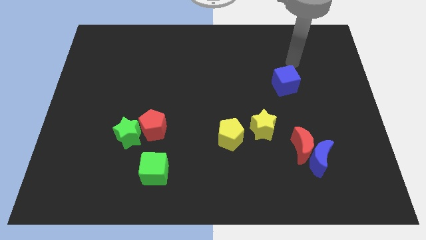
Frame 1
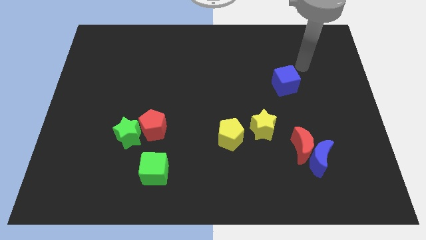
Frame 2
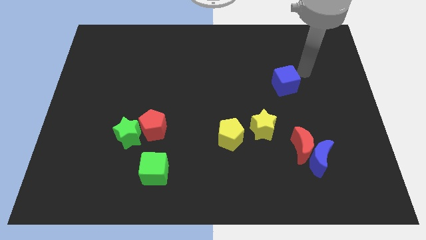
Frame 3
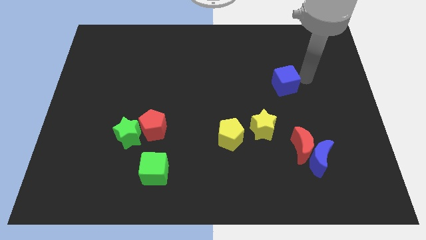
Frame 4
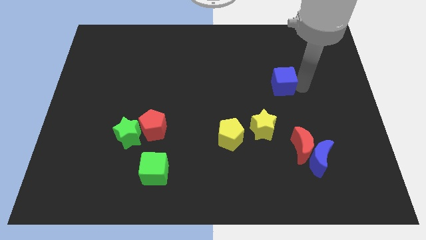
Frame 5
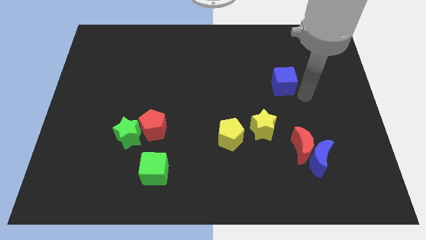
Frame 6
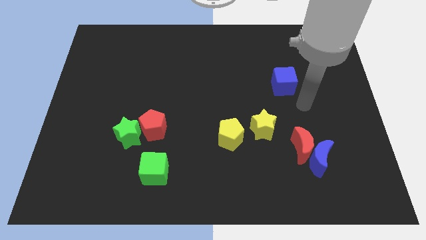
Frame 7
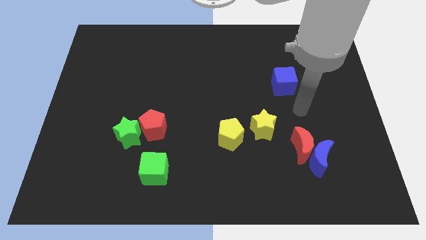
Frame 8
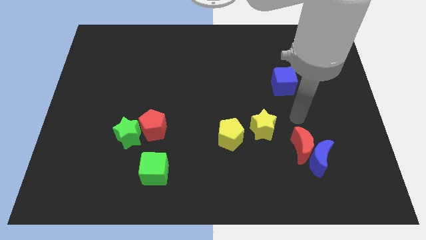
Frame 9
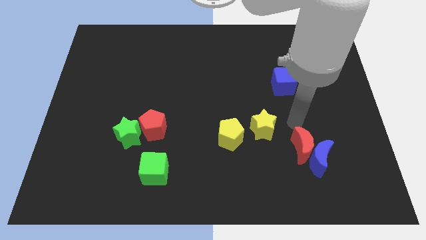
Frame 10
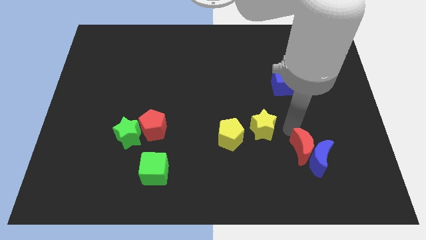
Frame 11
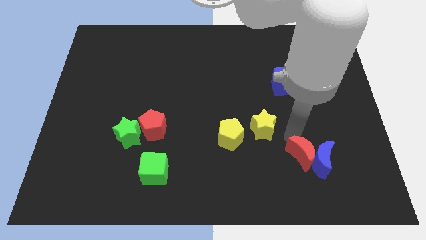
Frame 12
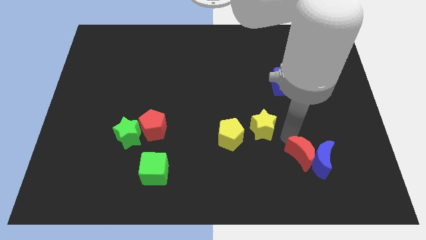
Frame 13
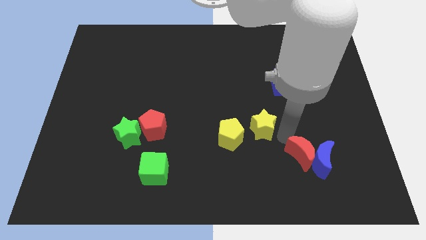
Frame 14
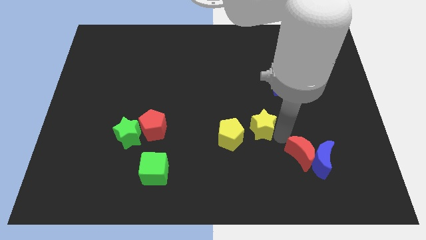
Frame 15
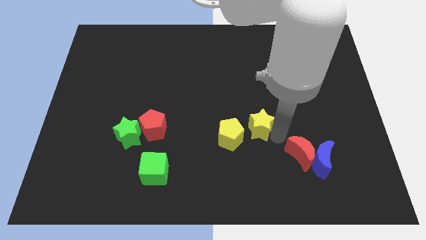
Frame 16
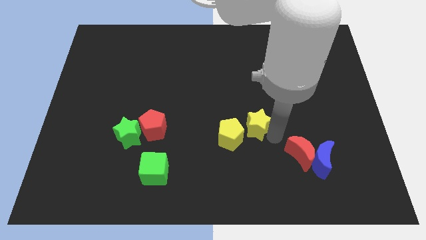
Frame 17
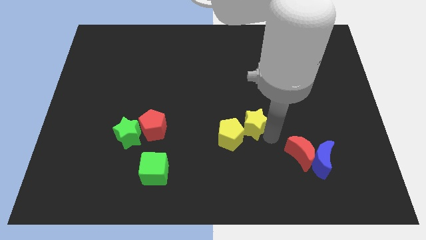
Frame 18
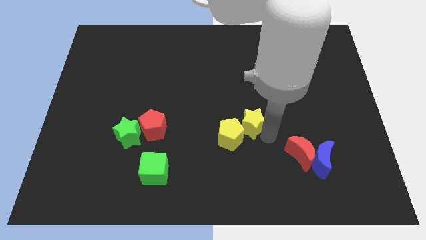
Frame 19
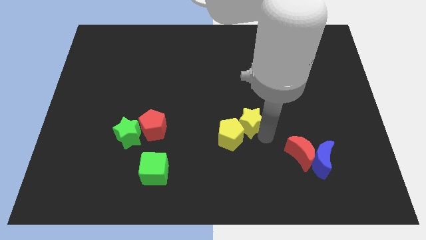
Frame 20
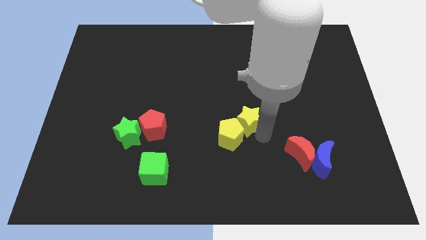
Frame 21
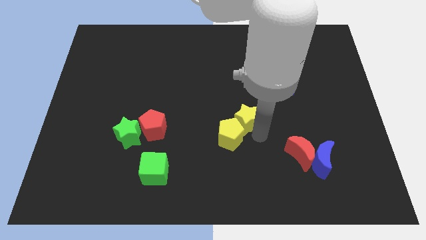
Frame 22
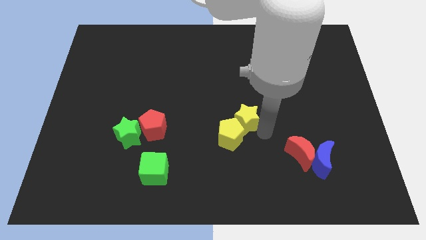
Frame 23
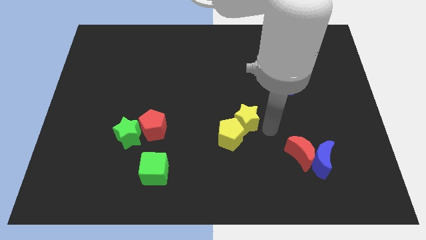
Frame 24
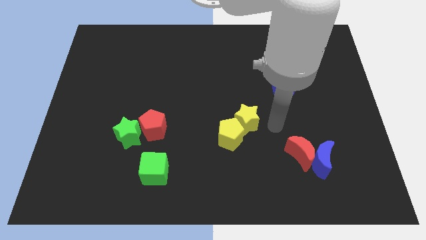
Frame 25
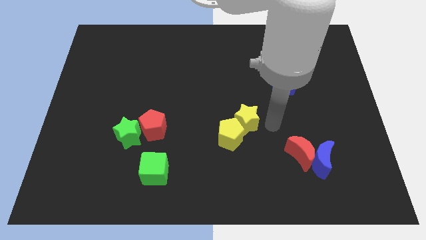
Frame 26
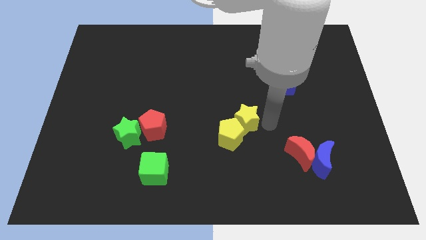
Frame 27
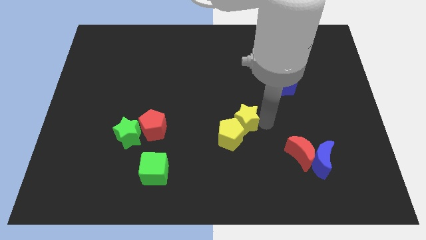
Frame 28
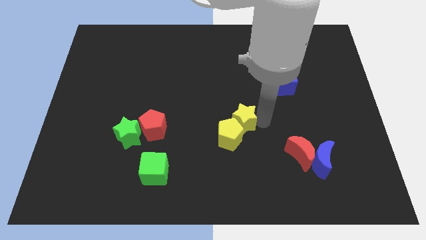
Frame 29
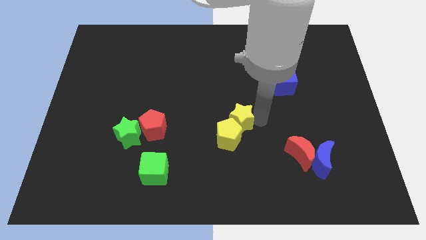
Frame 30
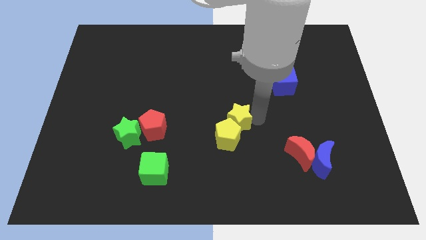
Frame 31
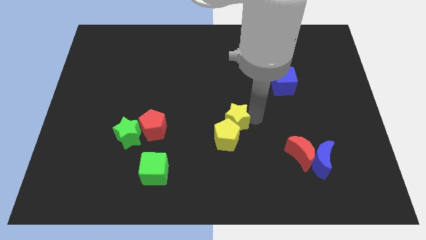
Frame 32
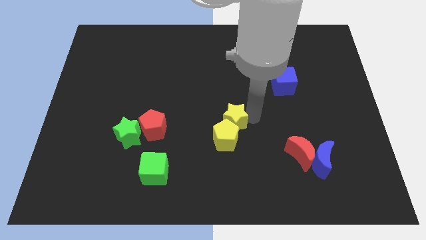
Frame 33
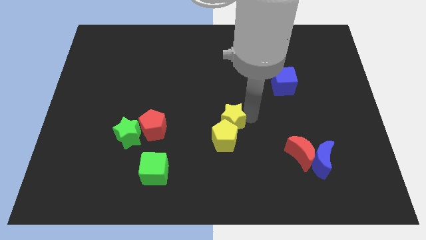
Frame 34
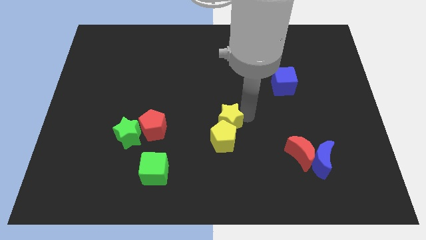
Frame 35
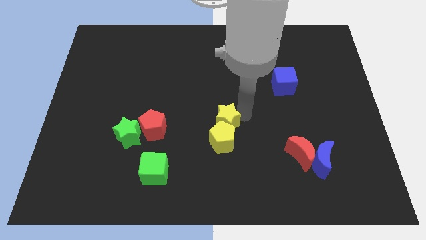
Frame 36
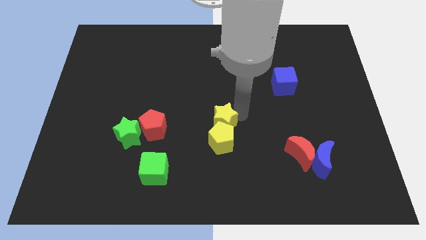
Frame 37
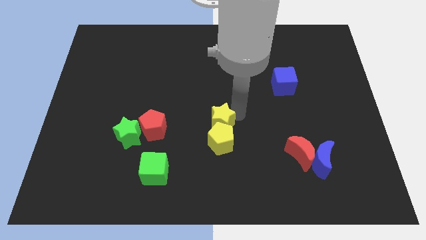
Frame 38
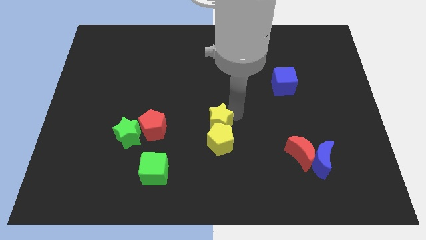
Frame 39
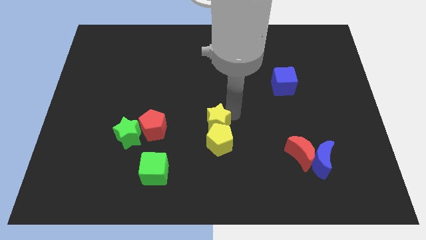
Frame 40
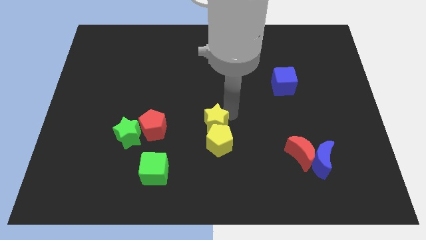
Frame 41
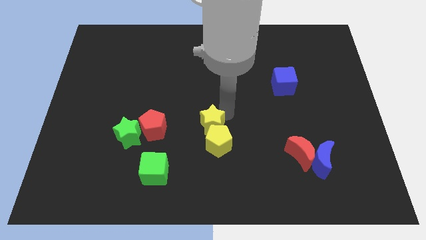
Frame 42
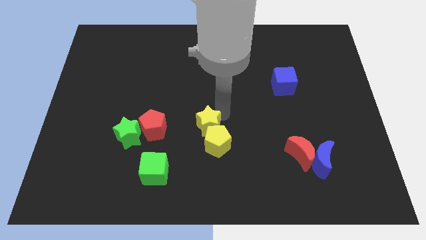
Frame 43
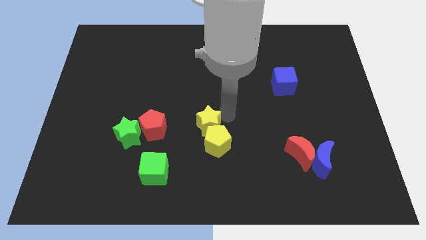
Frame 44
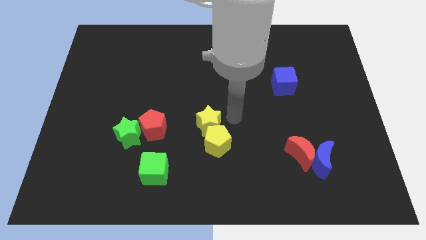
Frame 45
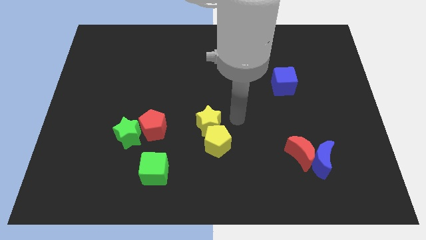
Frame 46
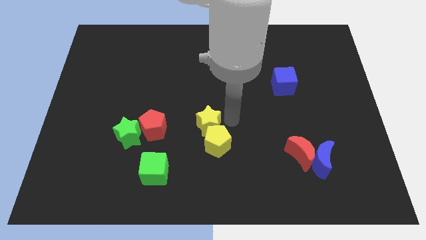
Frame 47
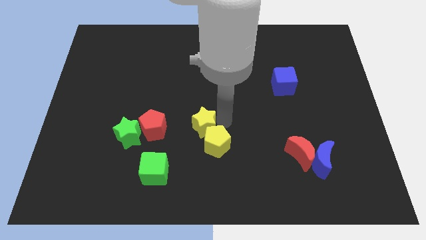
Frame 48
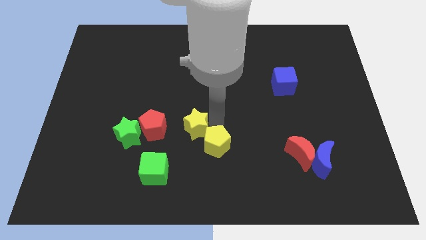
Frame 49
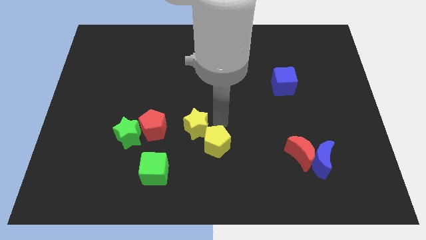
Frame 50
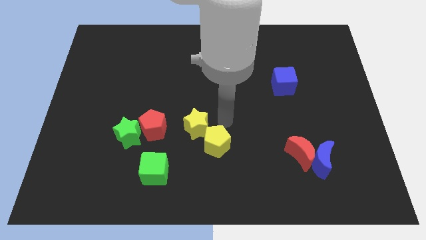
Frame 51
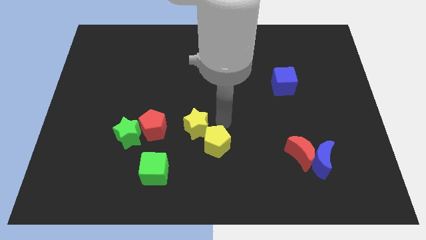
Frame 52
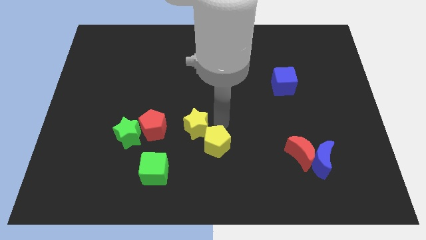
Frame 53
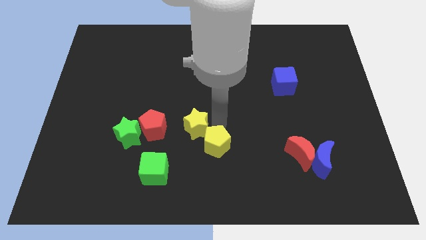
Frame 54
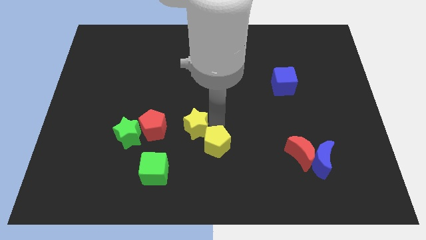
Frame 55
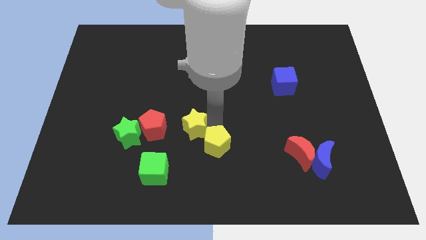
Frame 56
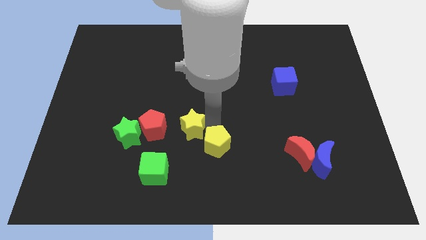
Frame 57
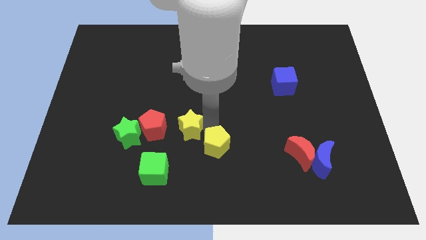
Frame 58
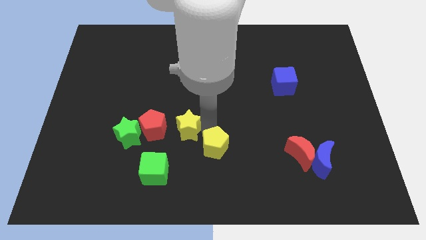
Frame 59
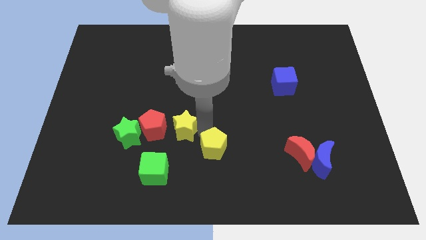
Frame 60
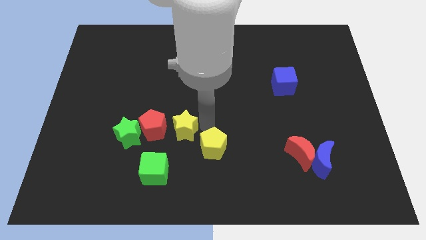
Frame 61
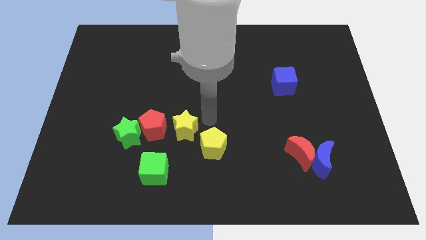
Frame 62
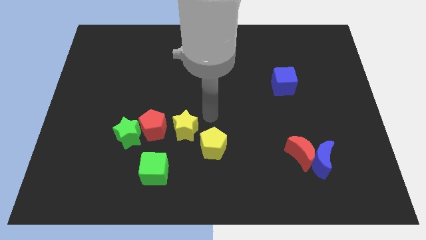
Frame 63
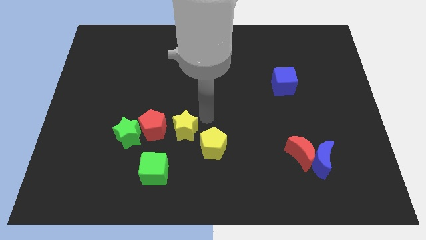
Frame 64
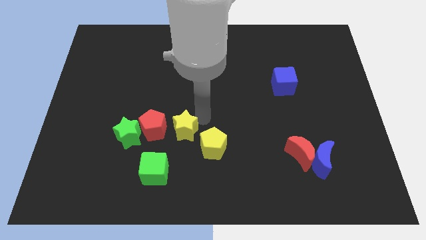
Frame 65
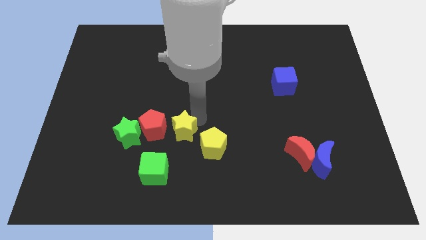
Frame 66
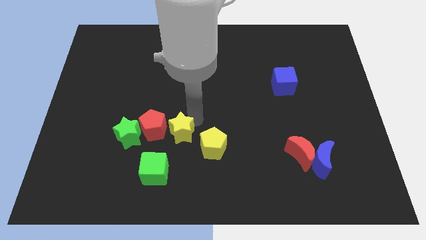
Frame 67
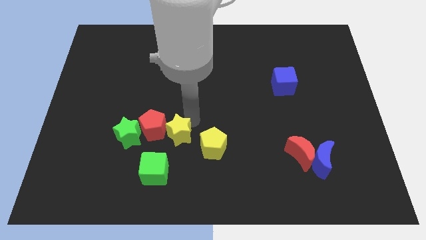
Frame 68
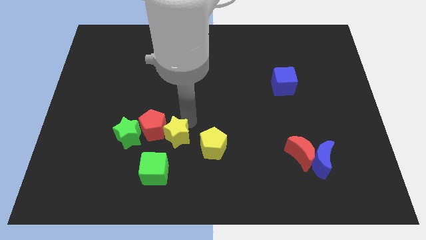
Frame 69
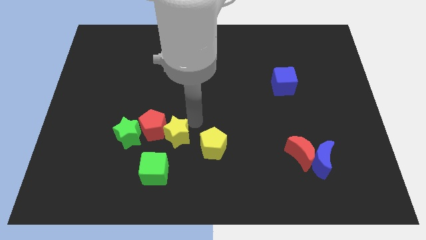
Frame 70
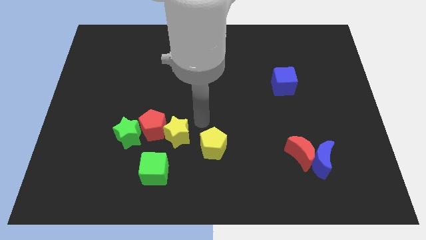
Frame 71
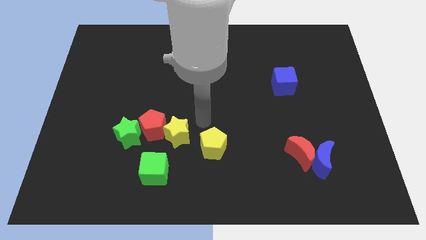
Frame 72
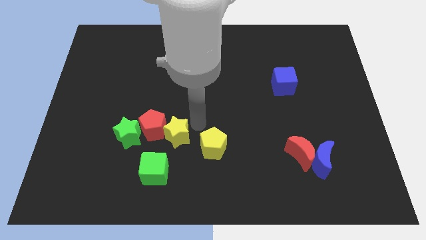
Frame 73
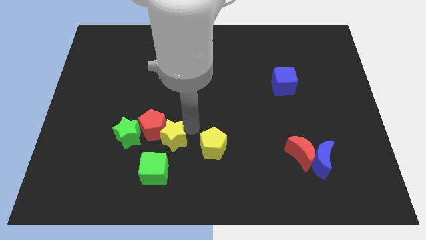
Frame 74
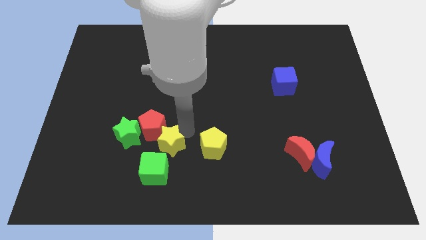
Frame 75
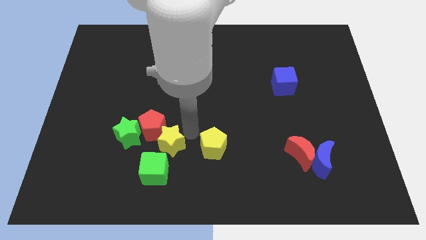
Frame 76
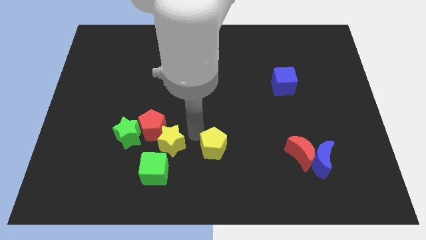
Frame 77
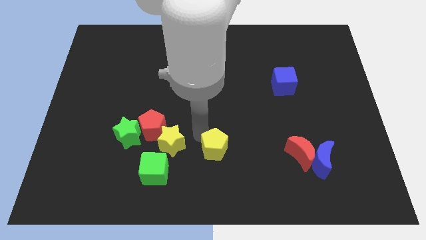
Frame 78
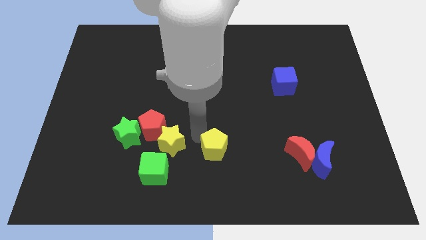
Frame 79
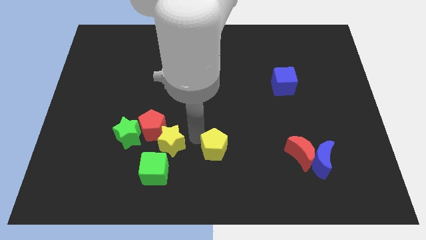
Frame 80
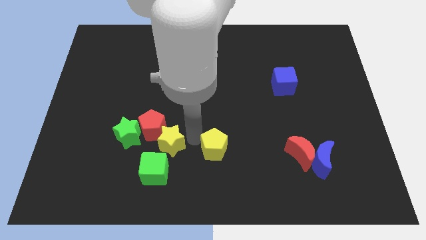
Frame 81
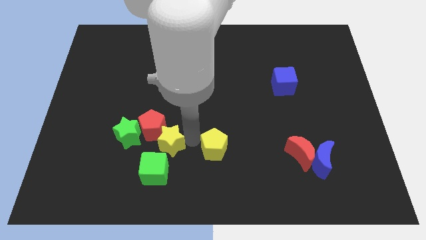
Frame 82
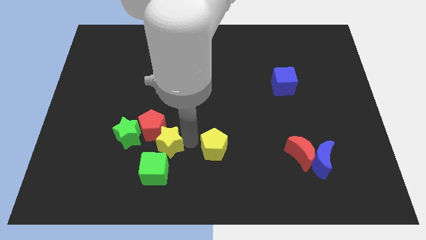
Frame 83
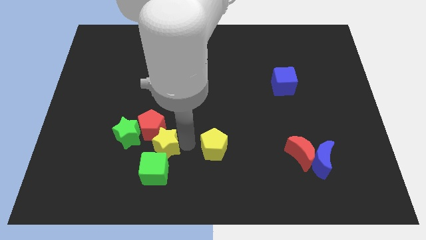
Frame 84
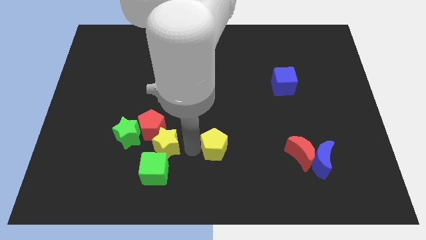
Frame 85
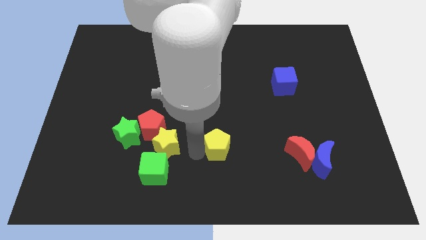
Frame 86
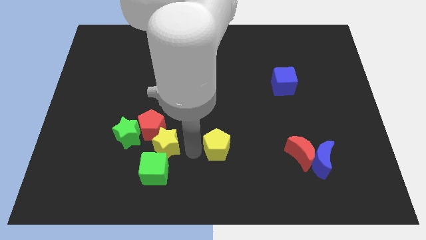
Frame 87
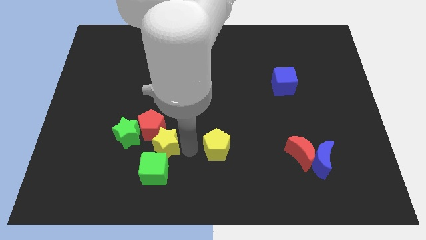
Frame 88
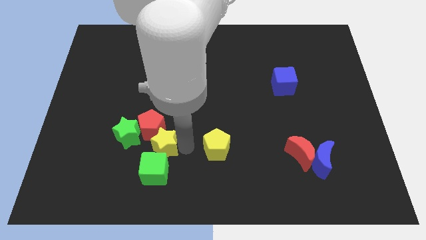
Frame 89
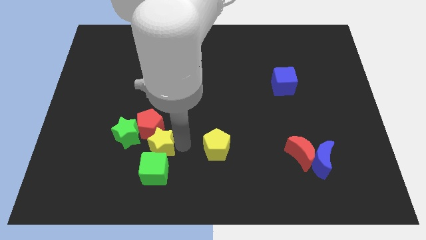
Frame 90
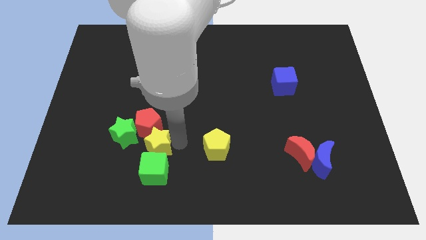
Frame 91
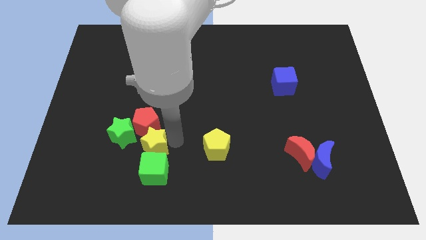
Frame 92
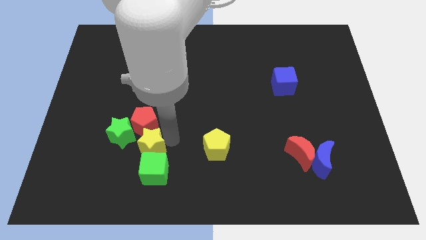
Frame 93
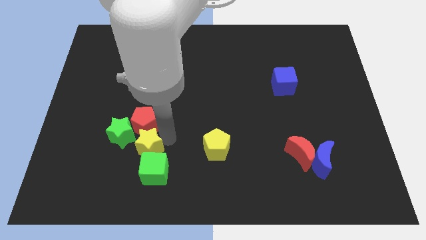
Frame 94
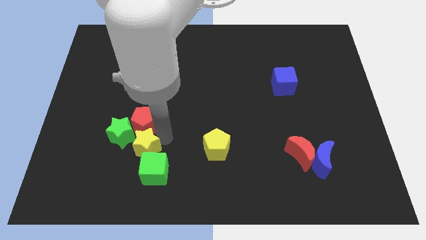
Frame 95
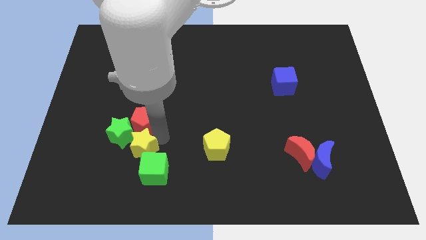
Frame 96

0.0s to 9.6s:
push the yellow star to the green star
